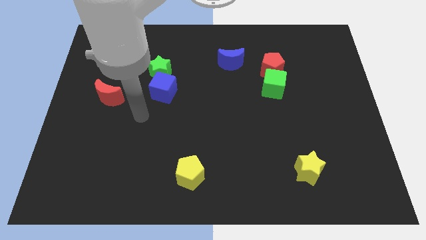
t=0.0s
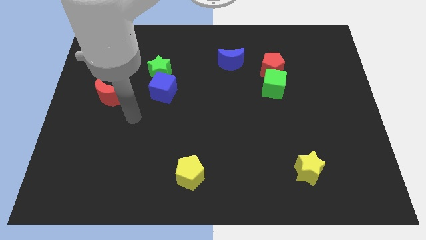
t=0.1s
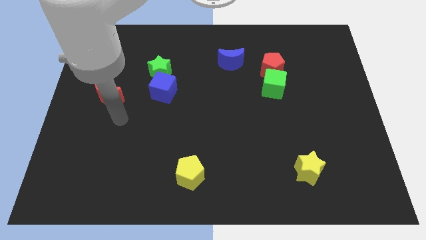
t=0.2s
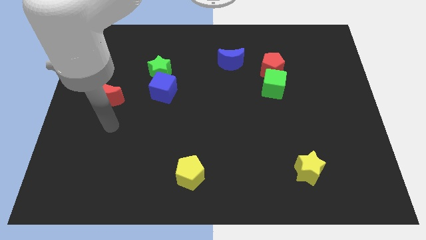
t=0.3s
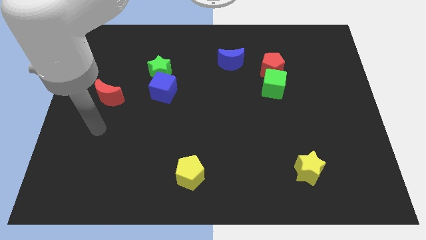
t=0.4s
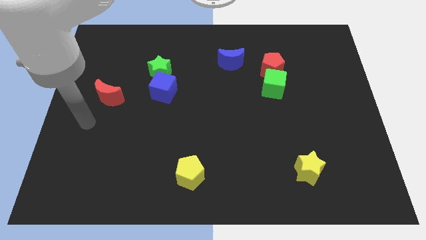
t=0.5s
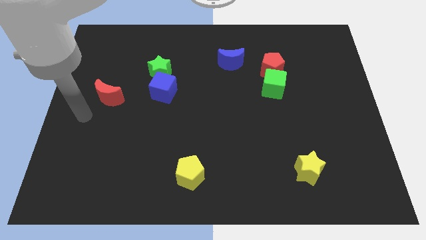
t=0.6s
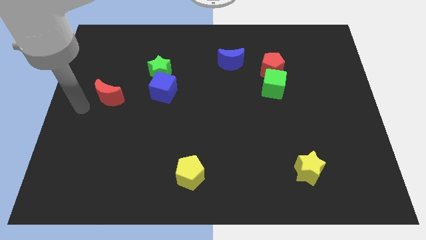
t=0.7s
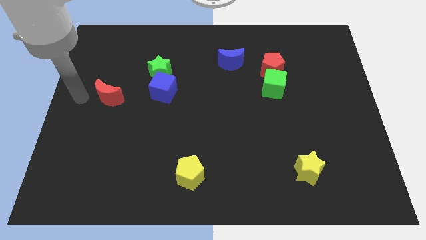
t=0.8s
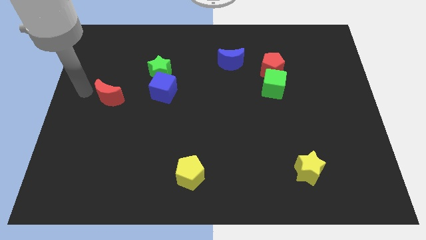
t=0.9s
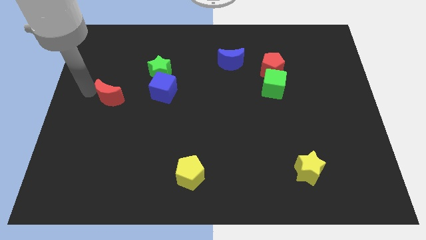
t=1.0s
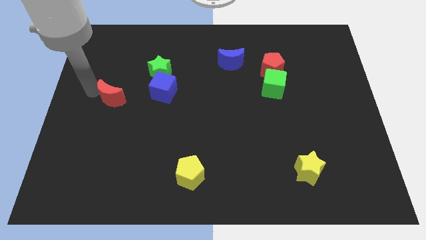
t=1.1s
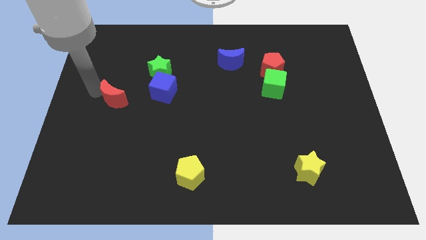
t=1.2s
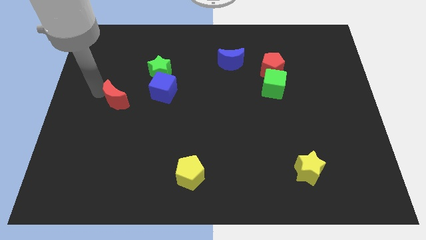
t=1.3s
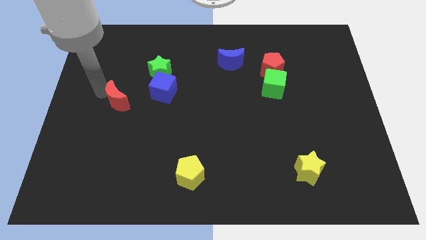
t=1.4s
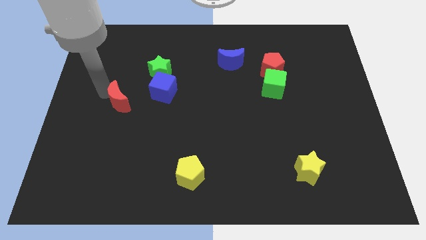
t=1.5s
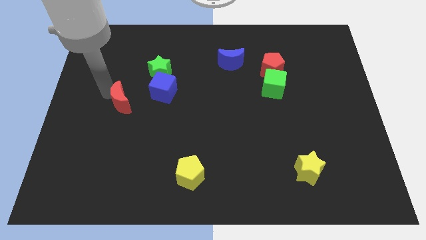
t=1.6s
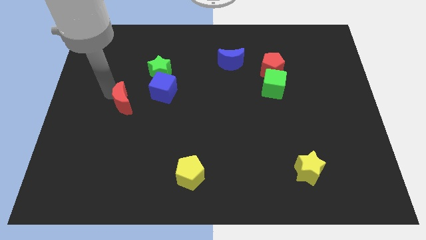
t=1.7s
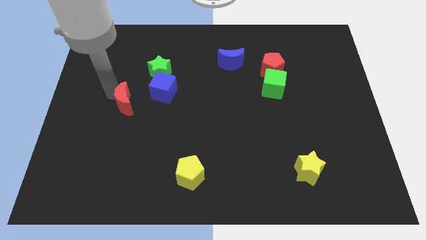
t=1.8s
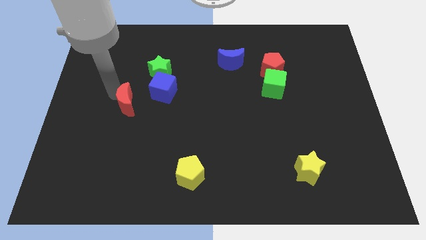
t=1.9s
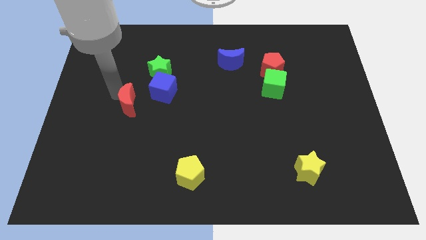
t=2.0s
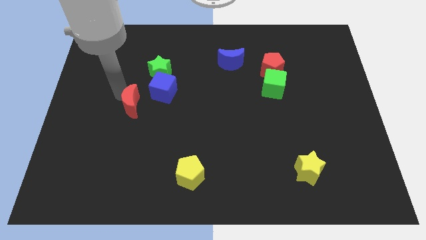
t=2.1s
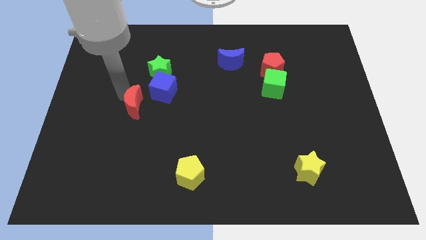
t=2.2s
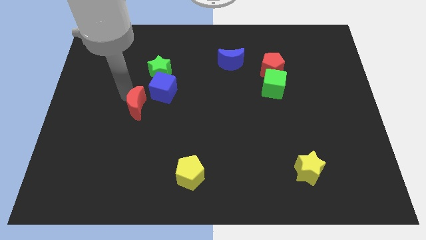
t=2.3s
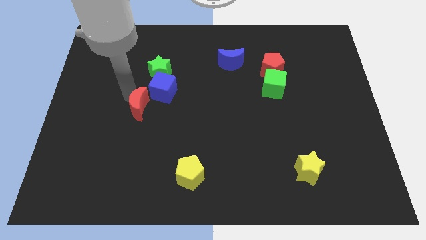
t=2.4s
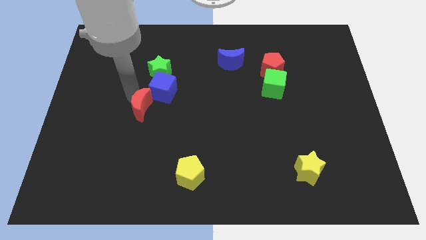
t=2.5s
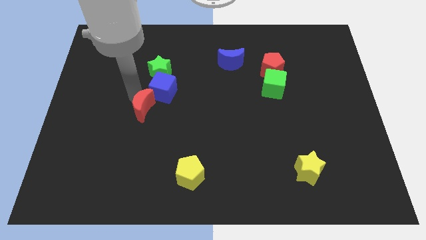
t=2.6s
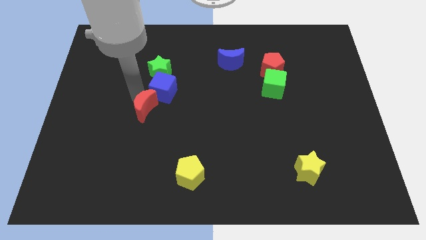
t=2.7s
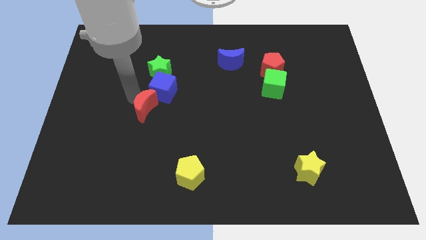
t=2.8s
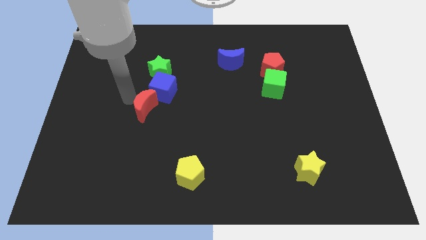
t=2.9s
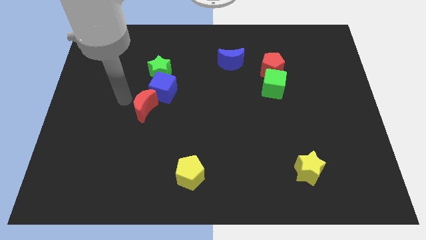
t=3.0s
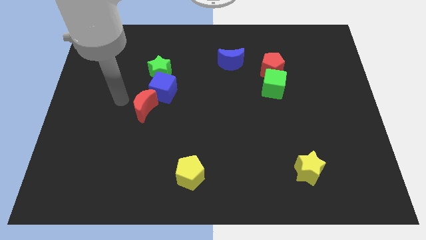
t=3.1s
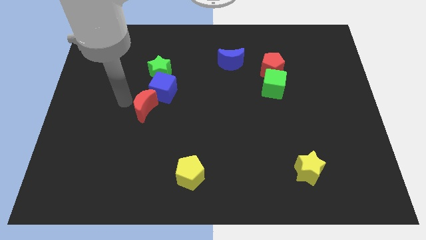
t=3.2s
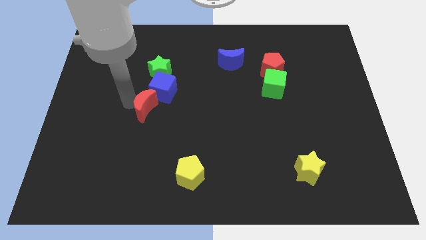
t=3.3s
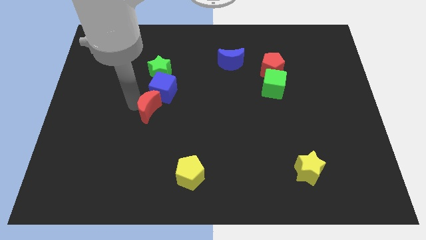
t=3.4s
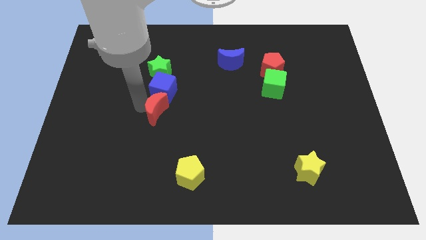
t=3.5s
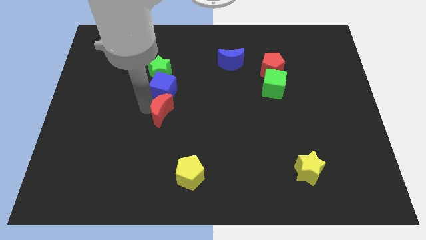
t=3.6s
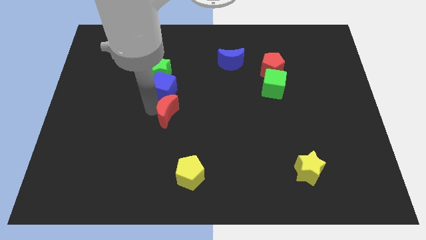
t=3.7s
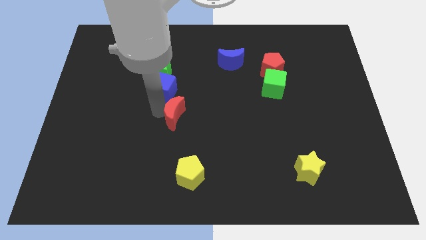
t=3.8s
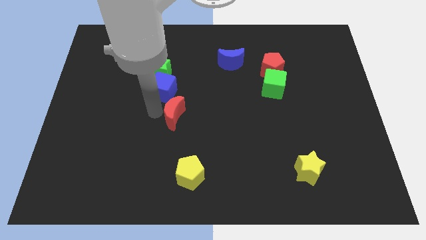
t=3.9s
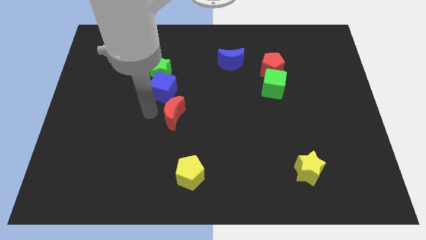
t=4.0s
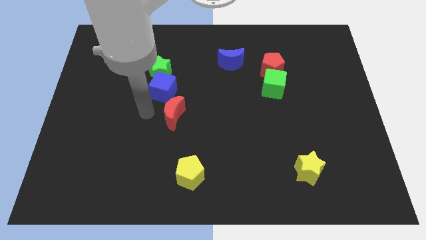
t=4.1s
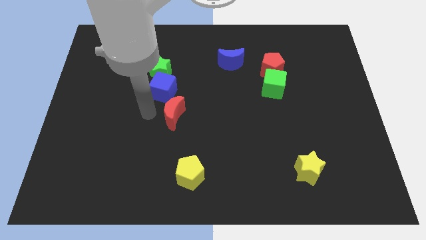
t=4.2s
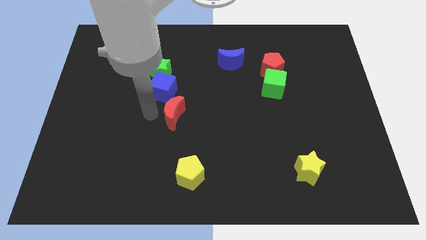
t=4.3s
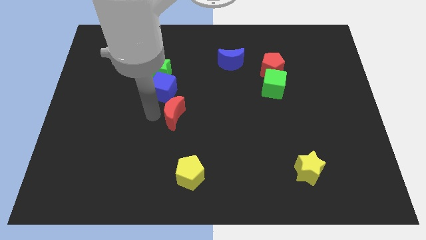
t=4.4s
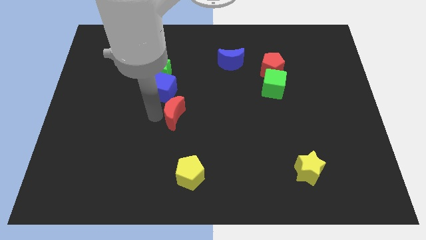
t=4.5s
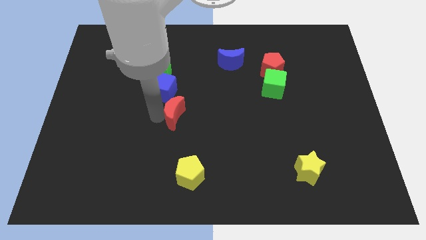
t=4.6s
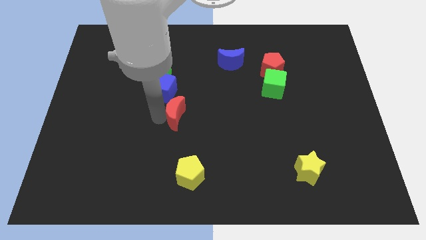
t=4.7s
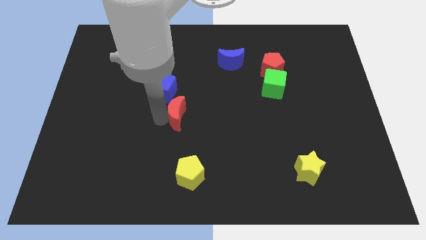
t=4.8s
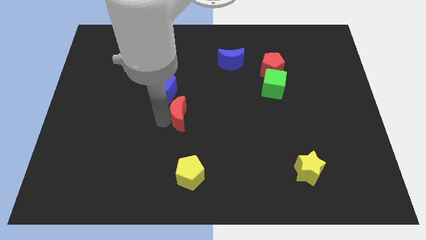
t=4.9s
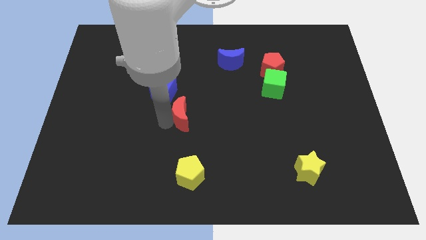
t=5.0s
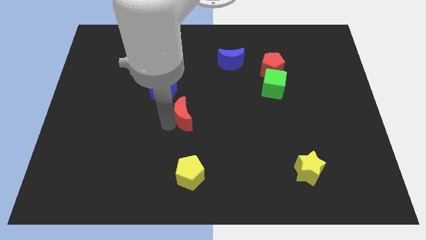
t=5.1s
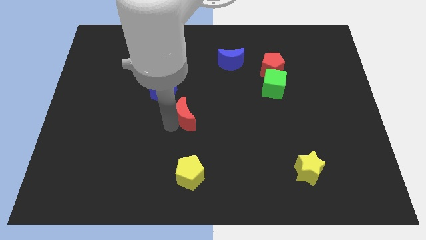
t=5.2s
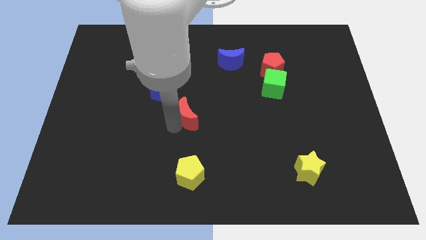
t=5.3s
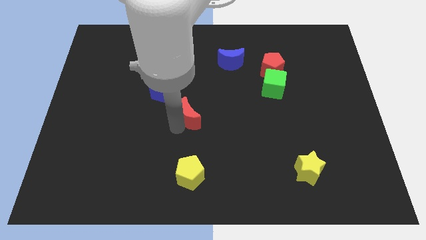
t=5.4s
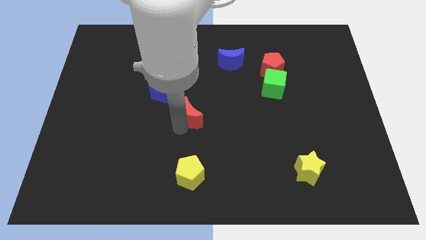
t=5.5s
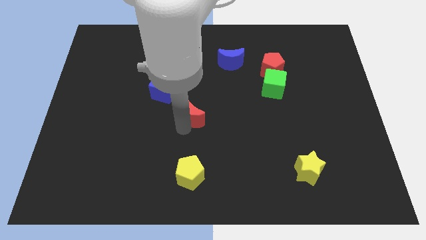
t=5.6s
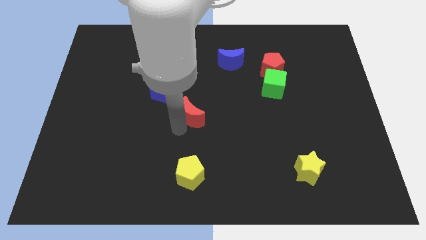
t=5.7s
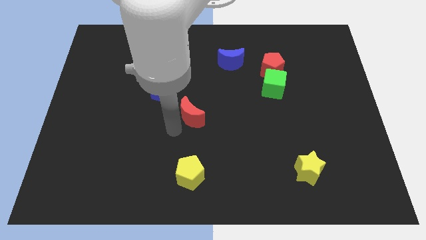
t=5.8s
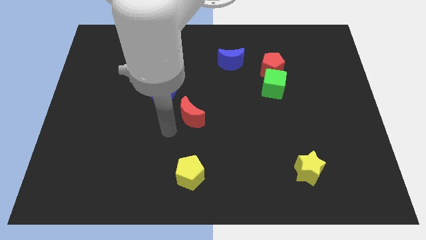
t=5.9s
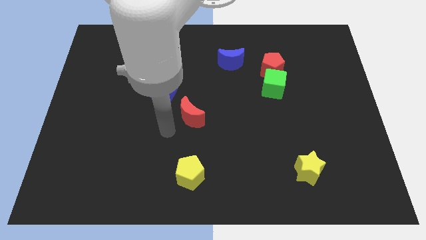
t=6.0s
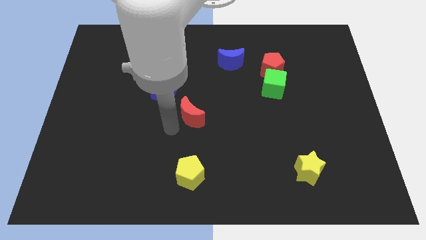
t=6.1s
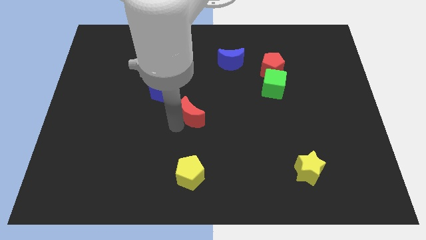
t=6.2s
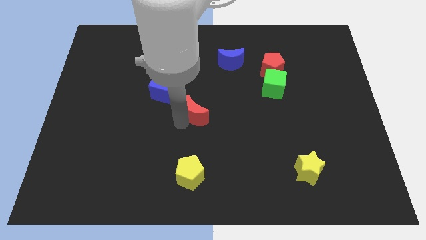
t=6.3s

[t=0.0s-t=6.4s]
move the red moon right

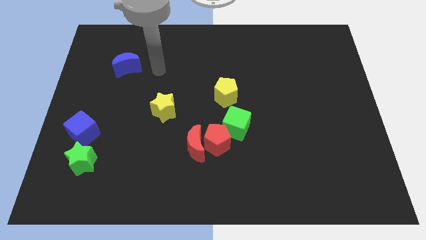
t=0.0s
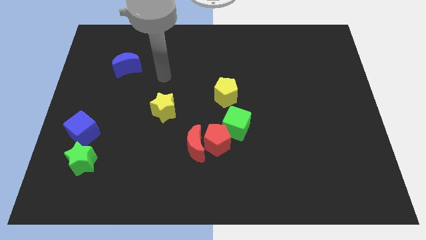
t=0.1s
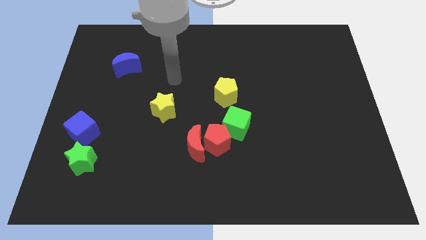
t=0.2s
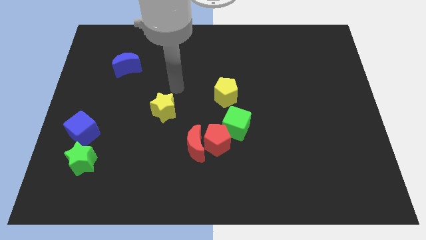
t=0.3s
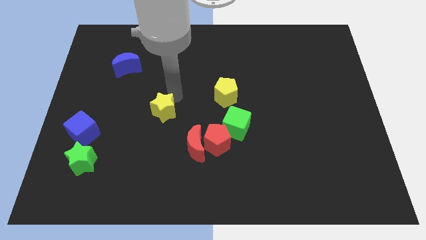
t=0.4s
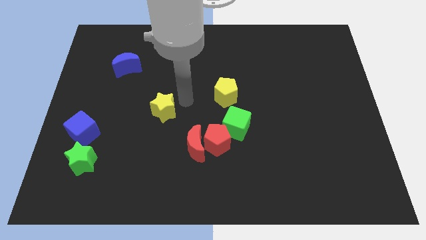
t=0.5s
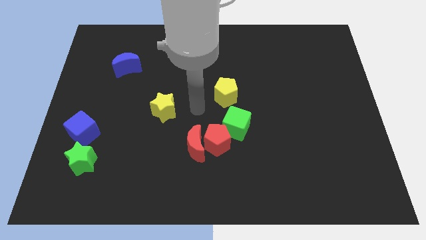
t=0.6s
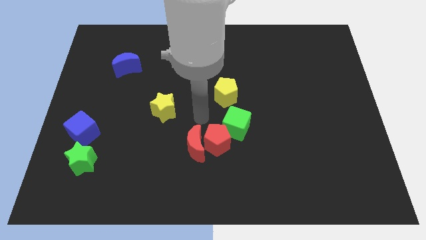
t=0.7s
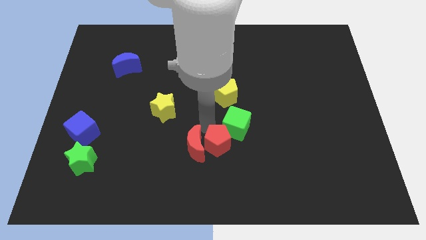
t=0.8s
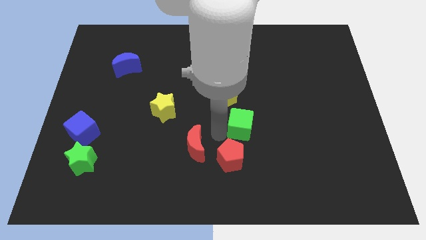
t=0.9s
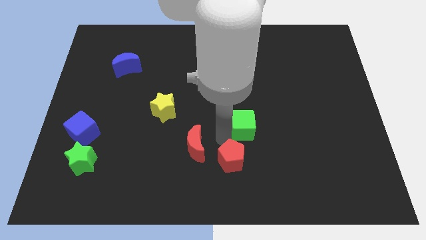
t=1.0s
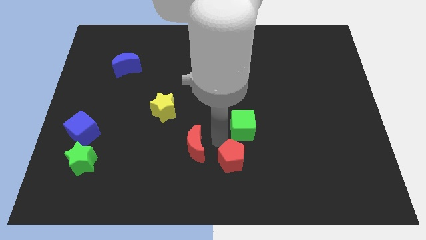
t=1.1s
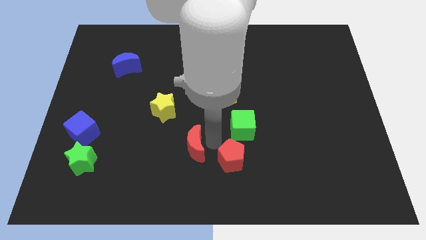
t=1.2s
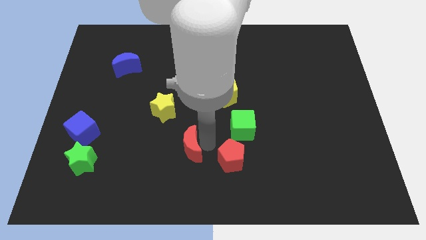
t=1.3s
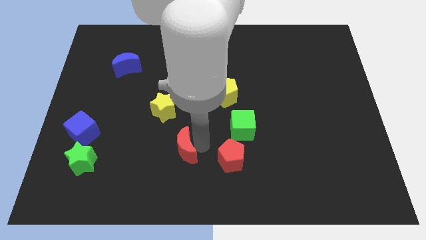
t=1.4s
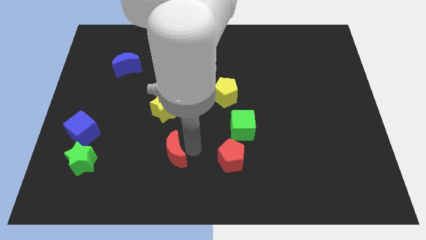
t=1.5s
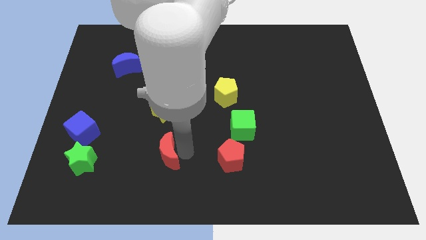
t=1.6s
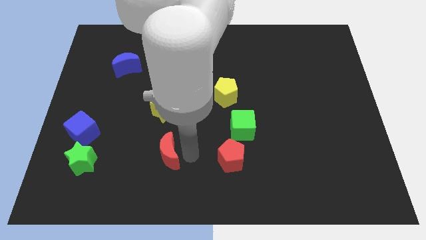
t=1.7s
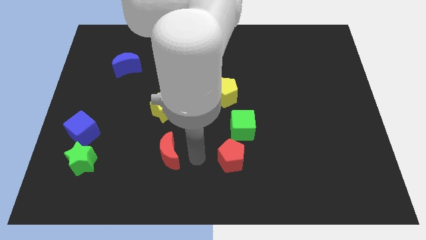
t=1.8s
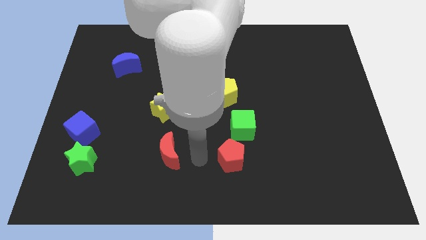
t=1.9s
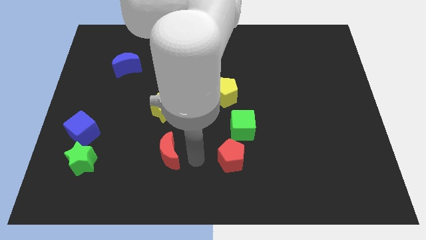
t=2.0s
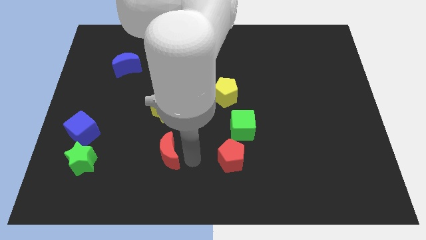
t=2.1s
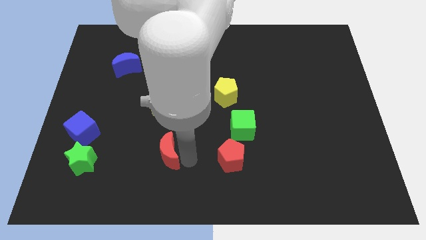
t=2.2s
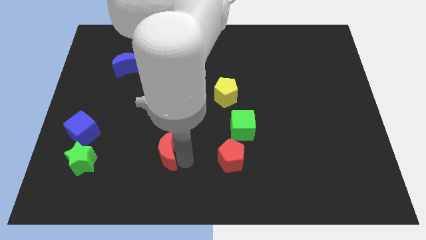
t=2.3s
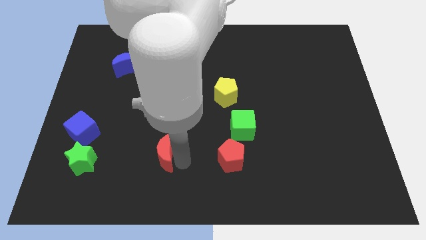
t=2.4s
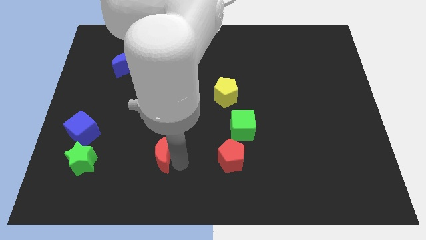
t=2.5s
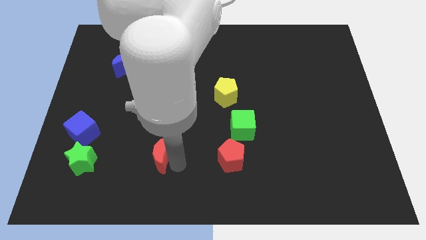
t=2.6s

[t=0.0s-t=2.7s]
move the red moon left somewhat
